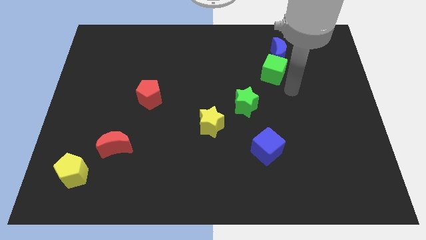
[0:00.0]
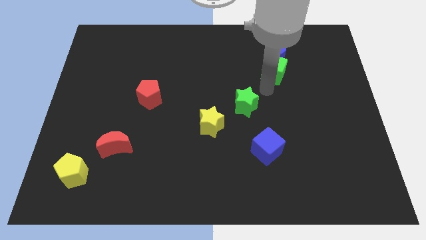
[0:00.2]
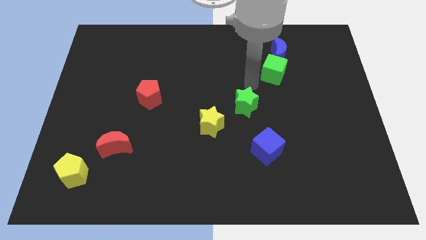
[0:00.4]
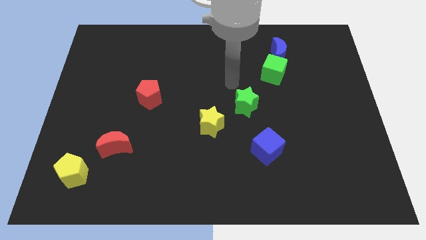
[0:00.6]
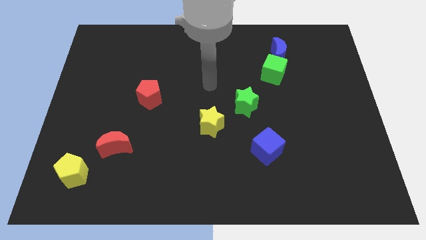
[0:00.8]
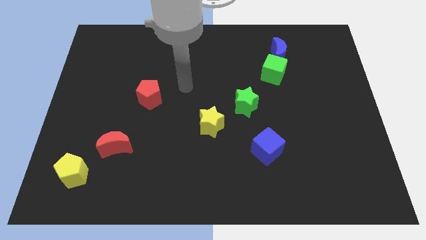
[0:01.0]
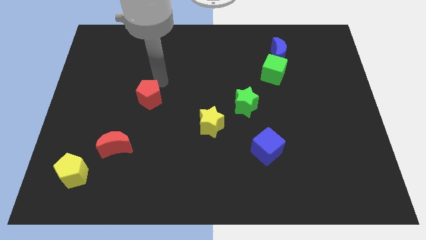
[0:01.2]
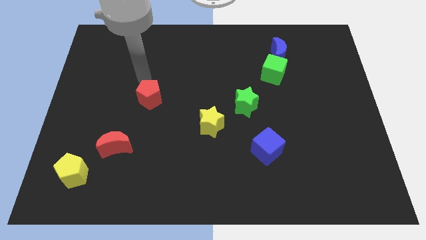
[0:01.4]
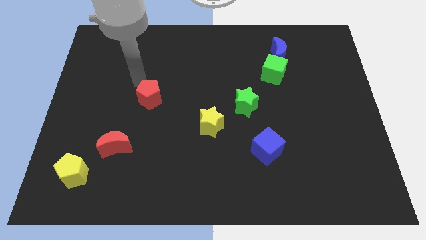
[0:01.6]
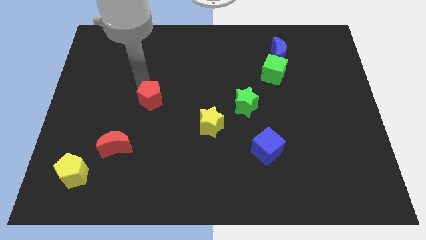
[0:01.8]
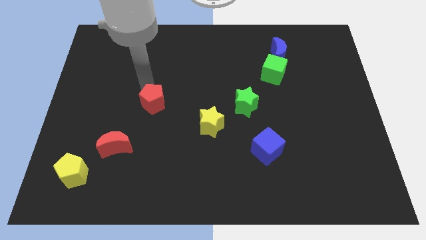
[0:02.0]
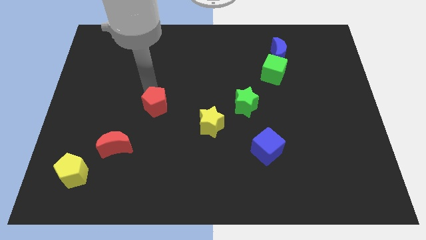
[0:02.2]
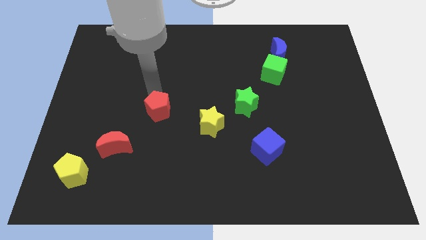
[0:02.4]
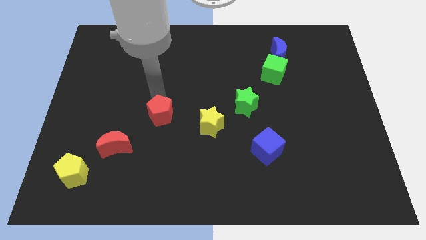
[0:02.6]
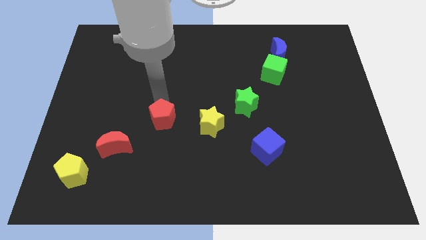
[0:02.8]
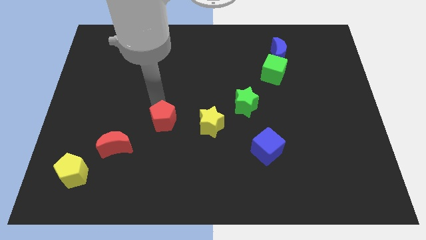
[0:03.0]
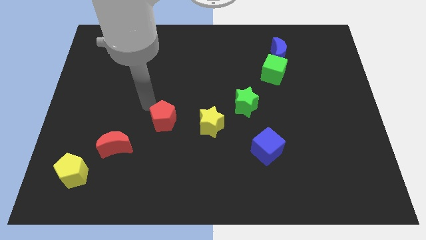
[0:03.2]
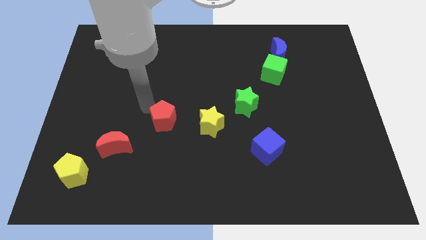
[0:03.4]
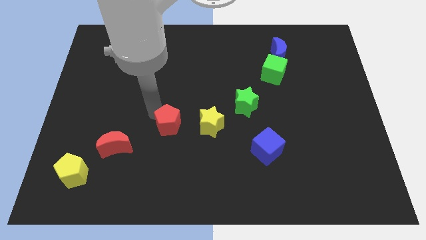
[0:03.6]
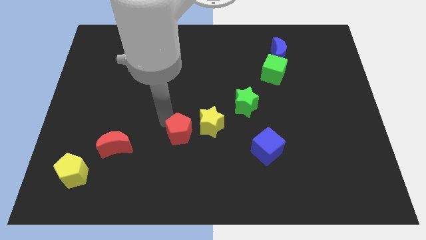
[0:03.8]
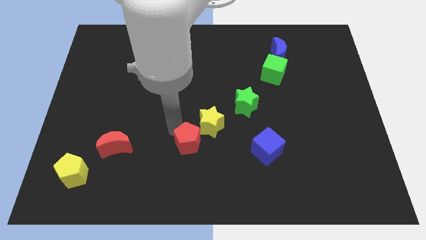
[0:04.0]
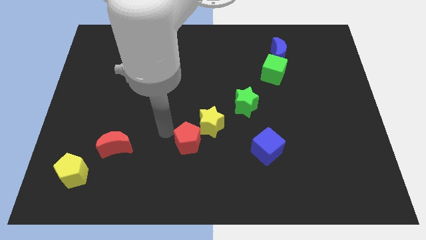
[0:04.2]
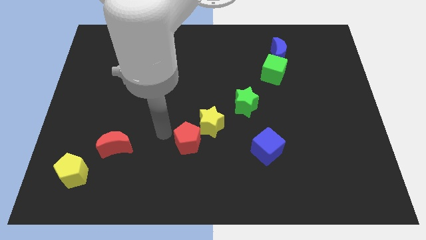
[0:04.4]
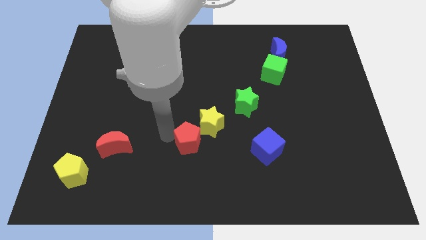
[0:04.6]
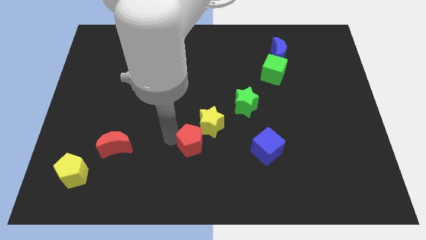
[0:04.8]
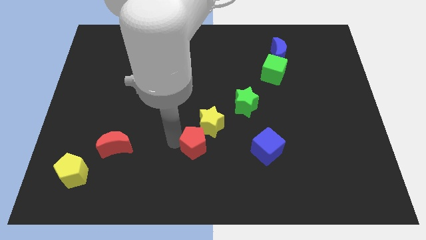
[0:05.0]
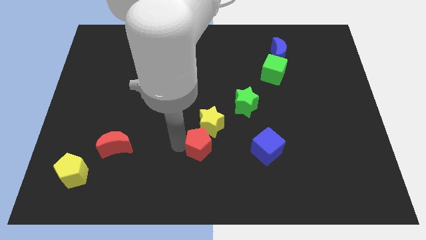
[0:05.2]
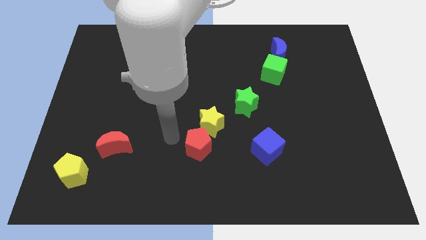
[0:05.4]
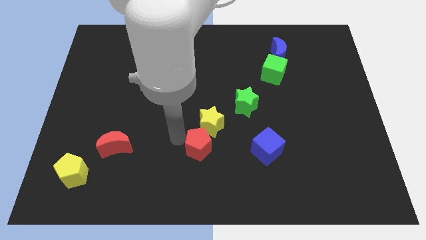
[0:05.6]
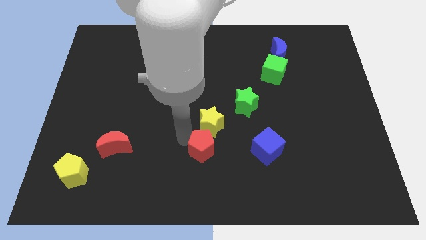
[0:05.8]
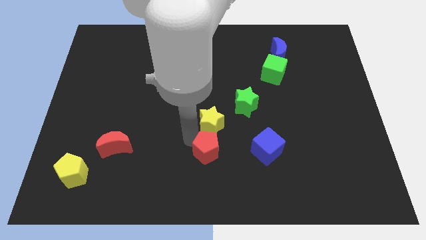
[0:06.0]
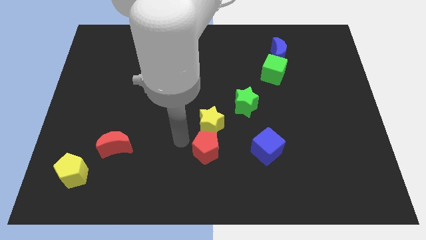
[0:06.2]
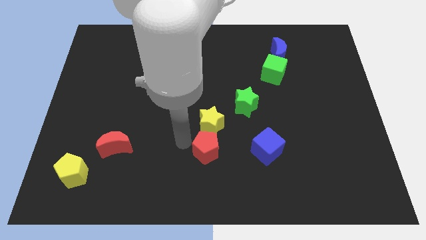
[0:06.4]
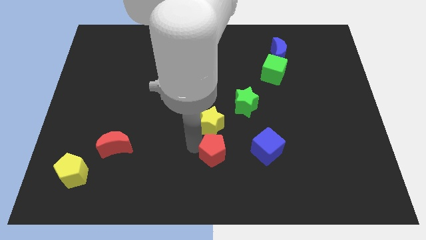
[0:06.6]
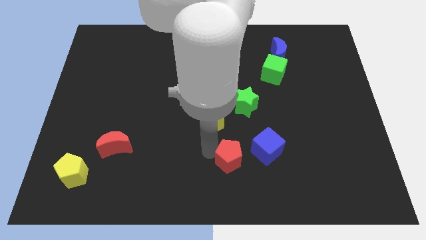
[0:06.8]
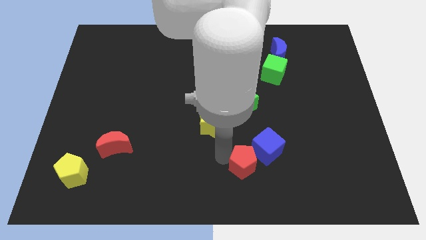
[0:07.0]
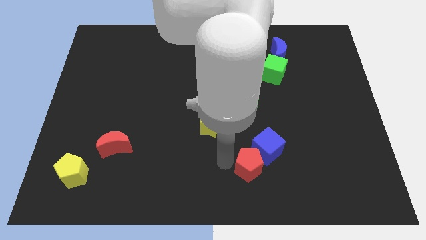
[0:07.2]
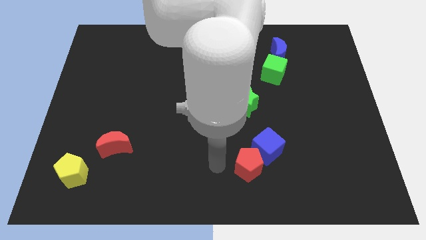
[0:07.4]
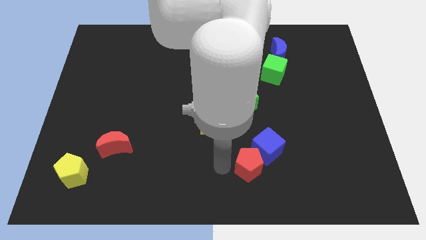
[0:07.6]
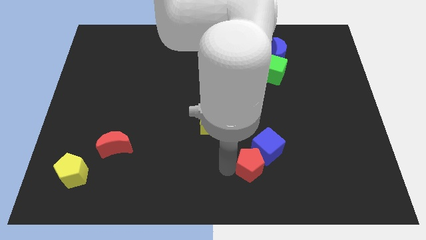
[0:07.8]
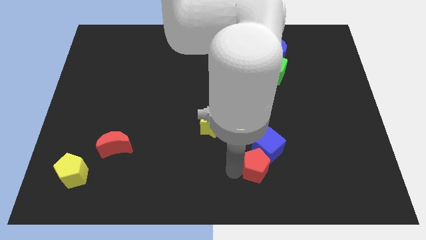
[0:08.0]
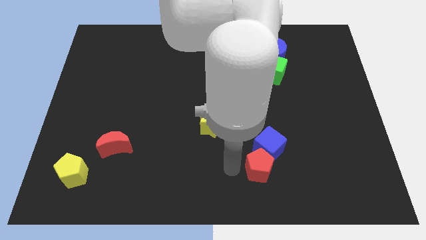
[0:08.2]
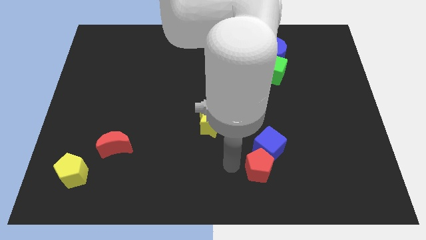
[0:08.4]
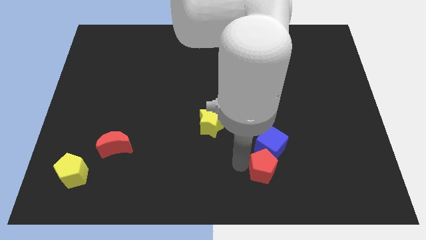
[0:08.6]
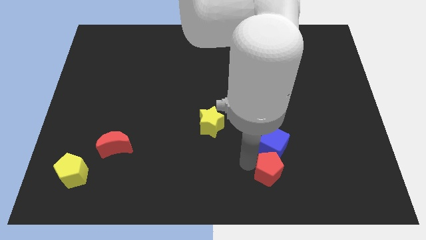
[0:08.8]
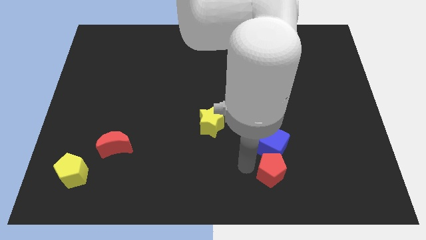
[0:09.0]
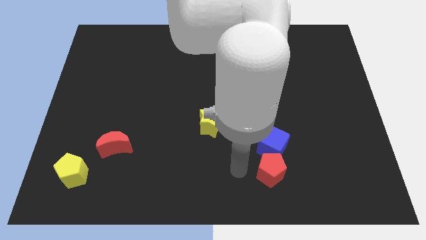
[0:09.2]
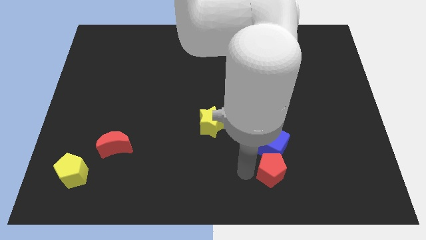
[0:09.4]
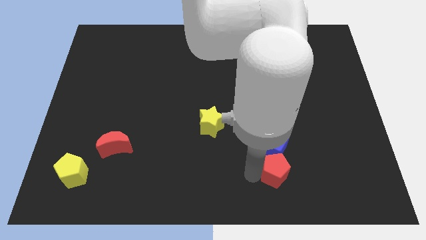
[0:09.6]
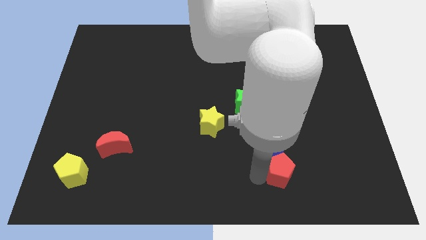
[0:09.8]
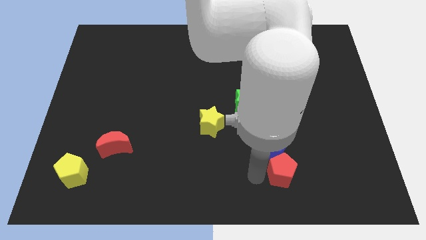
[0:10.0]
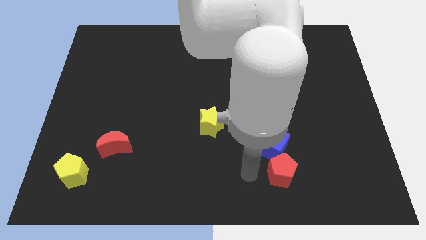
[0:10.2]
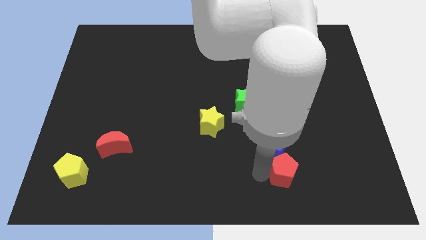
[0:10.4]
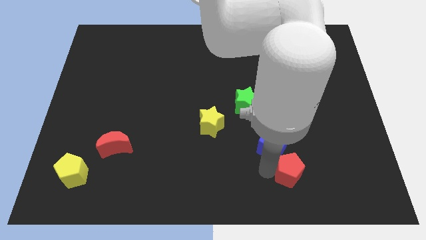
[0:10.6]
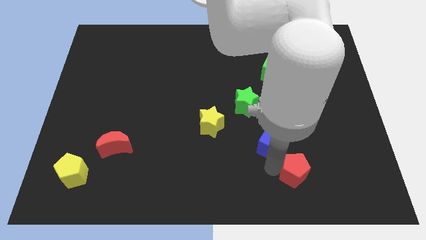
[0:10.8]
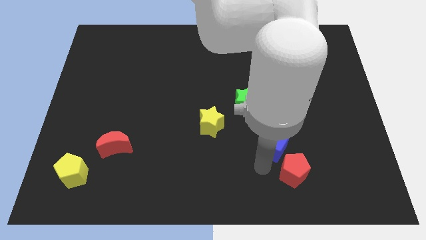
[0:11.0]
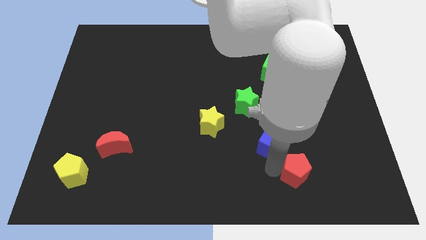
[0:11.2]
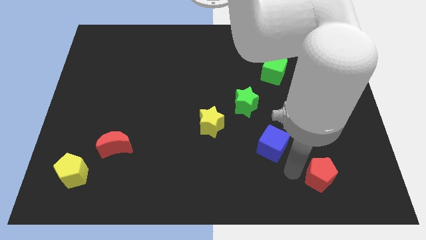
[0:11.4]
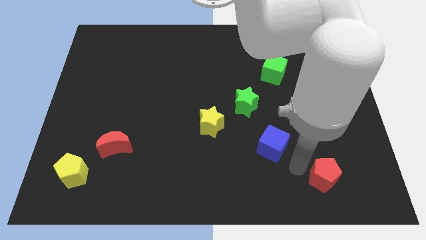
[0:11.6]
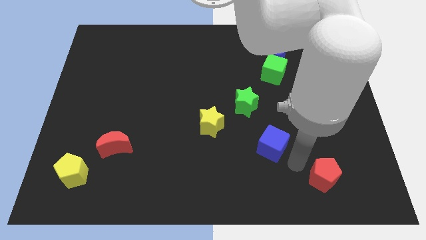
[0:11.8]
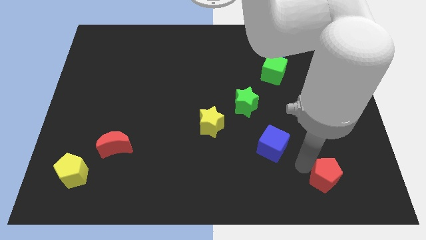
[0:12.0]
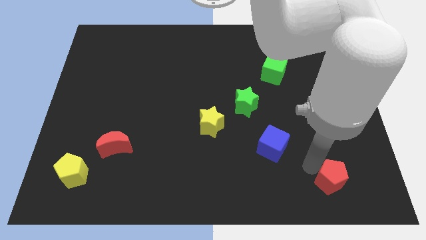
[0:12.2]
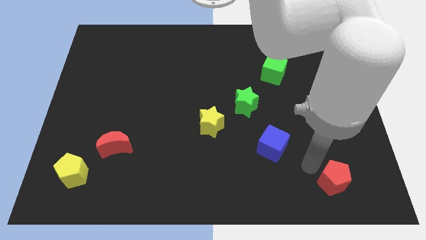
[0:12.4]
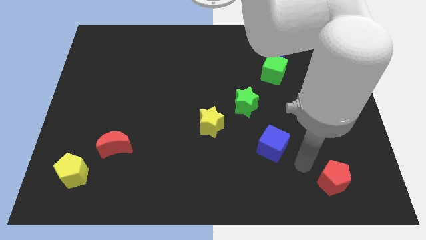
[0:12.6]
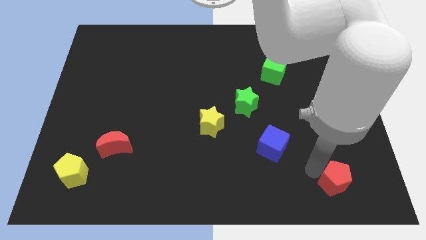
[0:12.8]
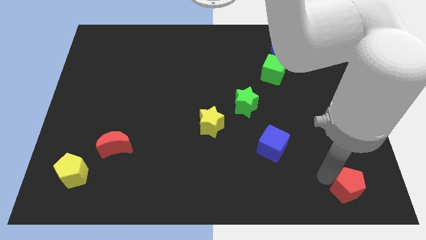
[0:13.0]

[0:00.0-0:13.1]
put the red pentagon to the lower right corner
